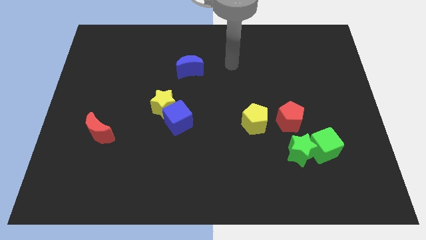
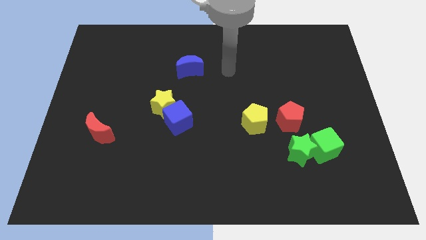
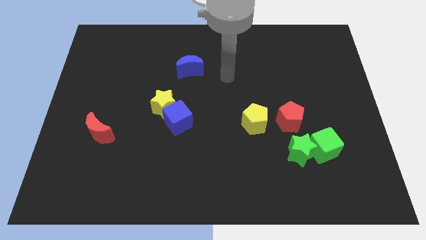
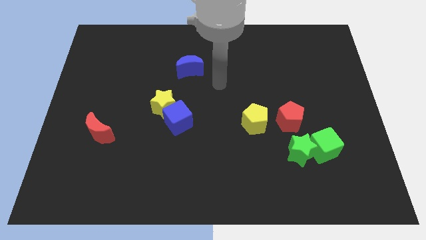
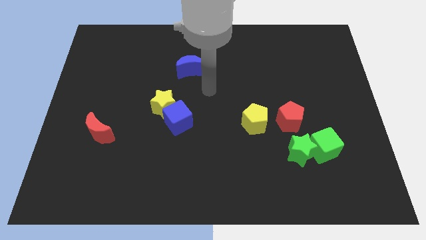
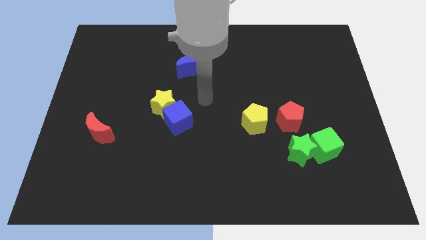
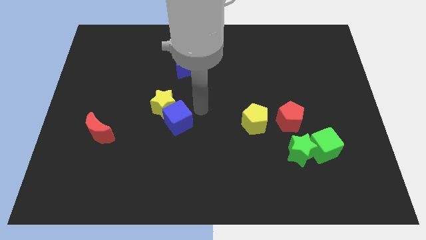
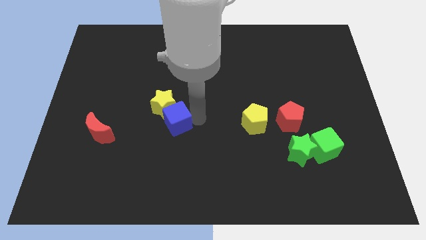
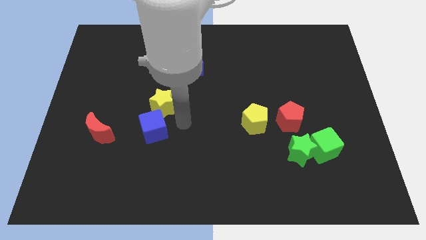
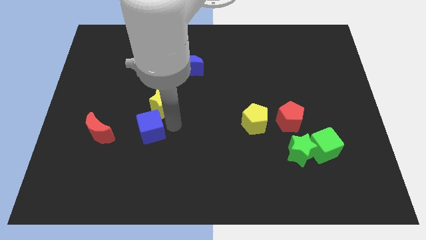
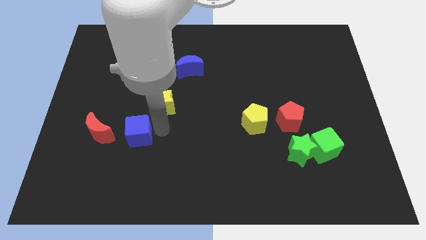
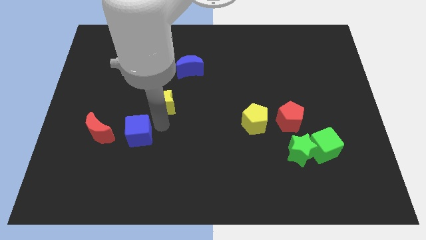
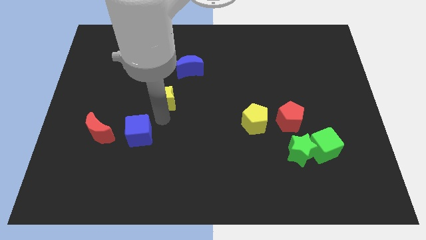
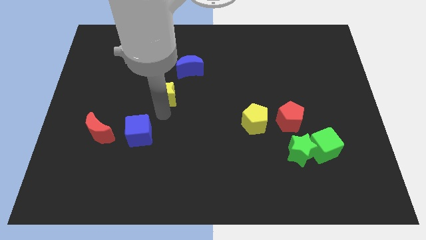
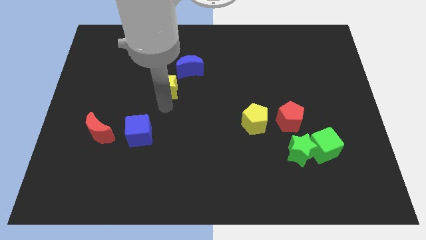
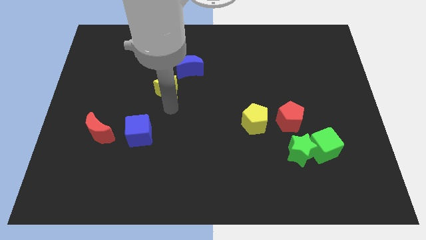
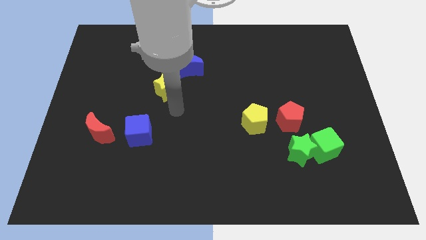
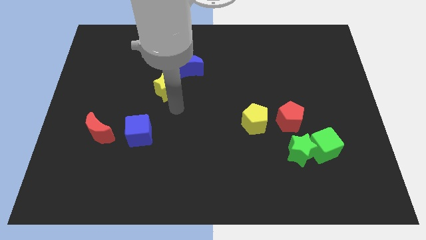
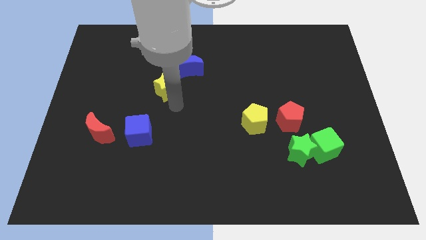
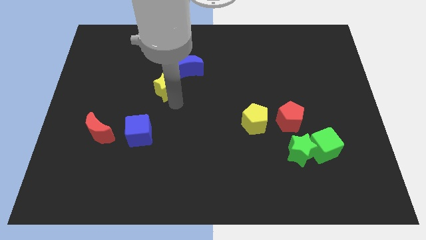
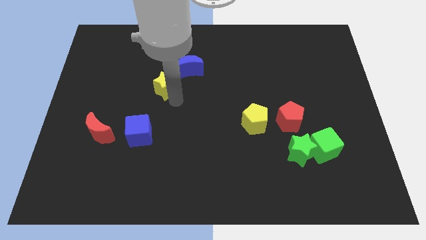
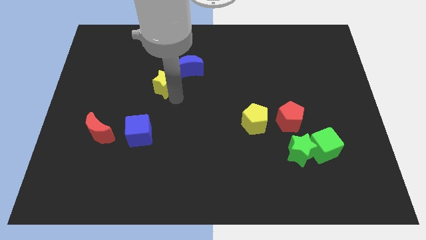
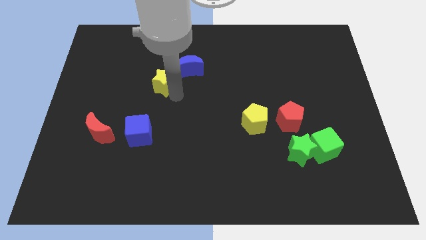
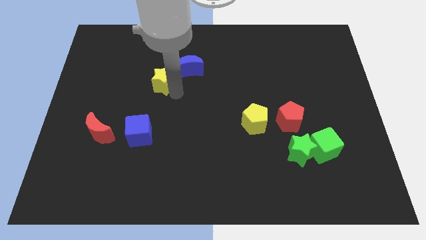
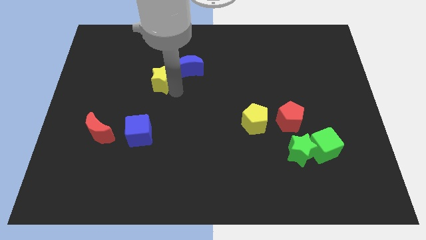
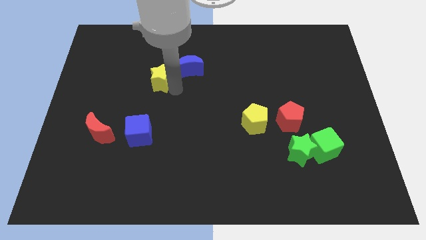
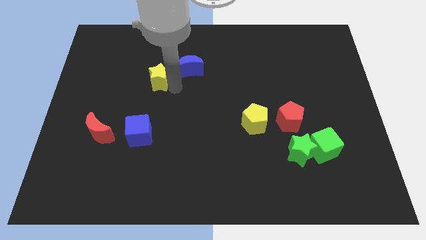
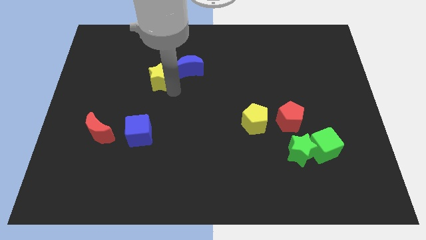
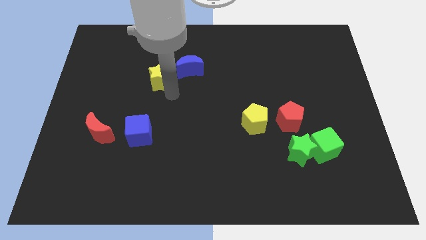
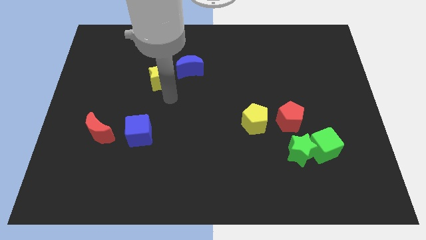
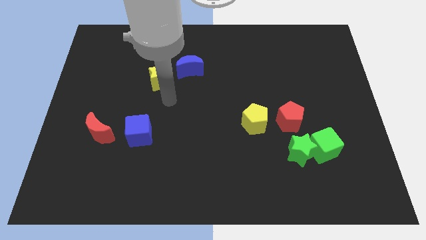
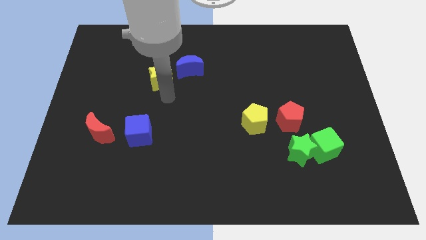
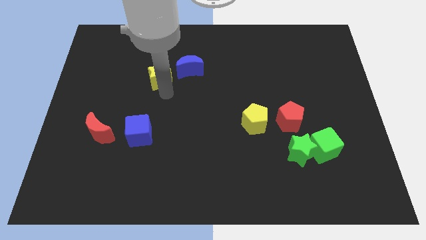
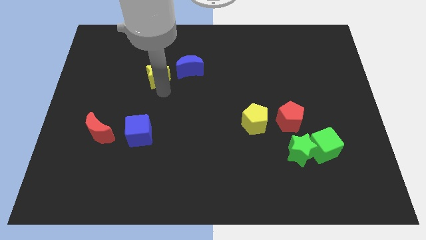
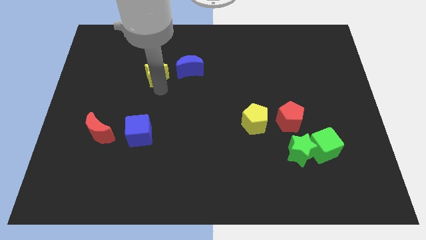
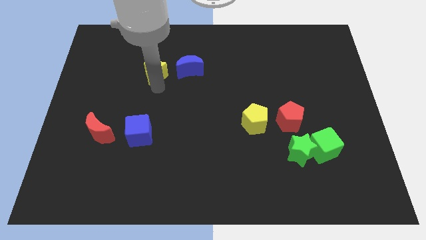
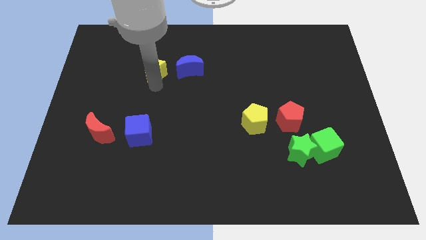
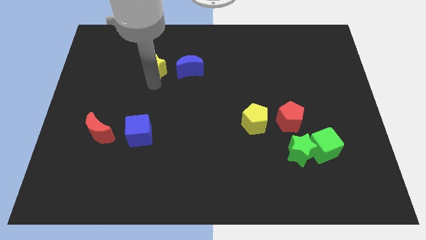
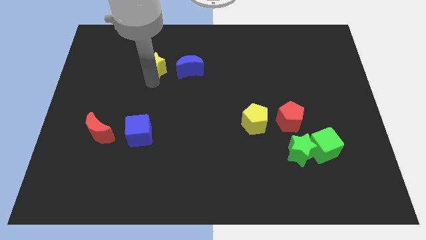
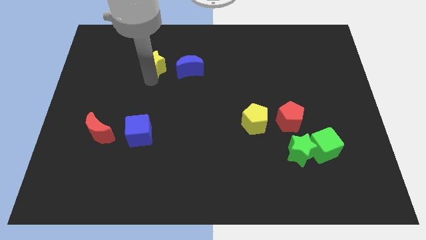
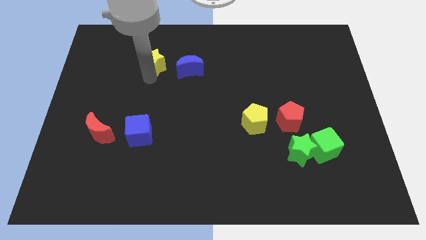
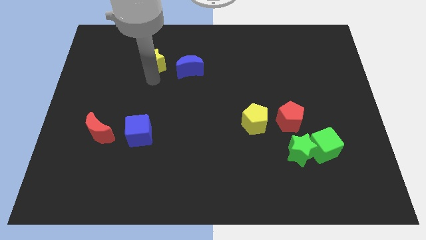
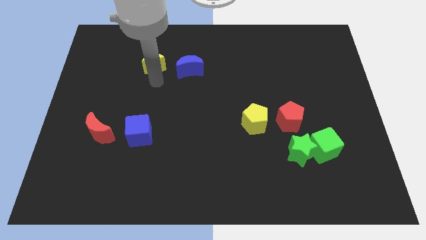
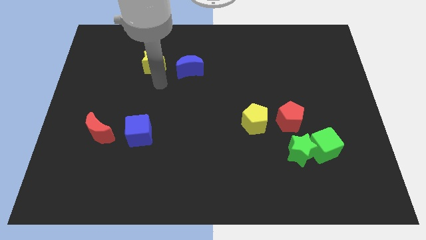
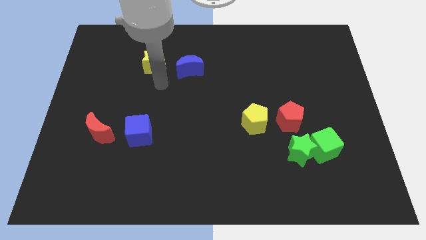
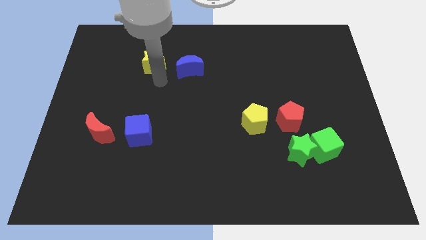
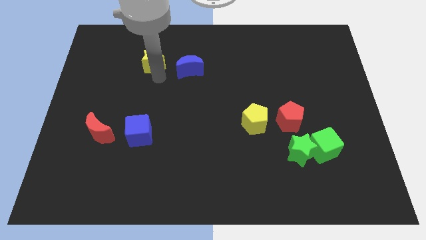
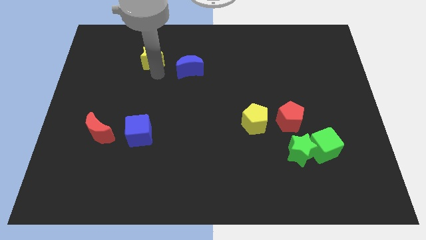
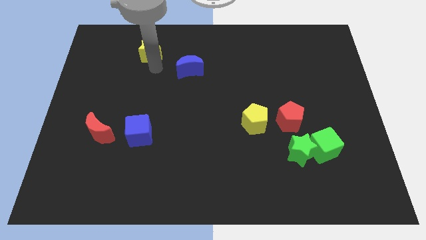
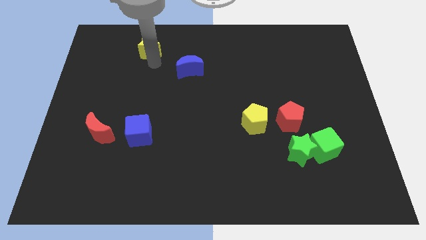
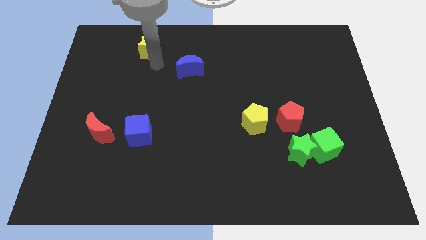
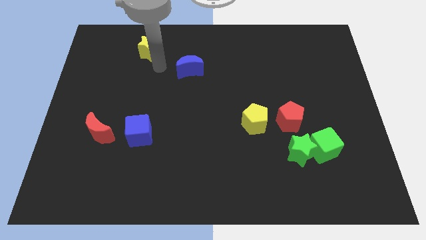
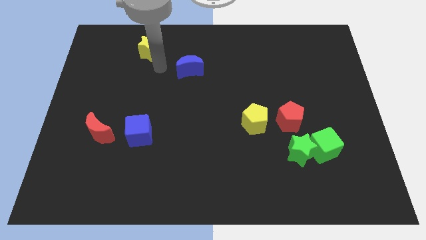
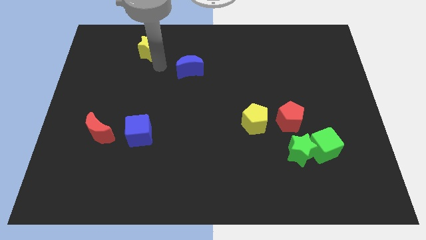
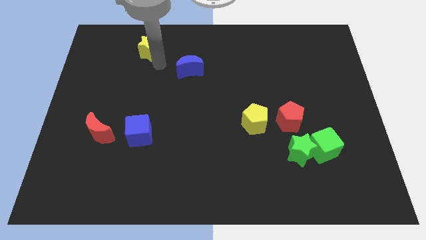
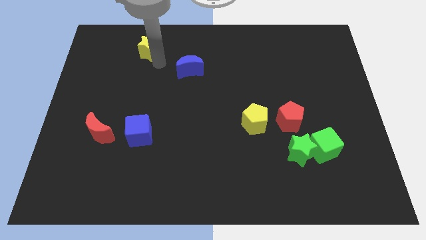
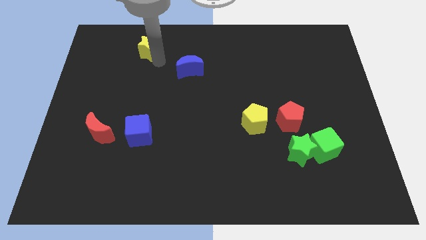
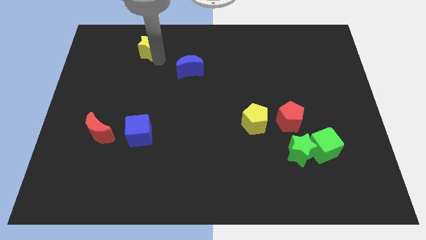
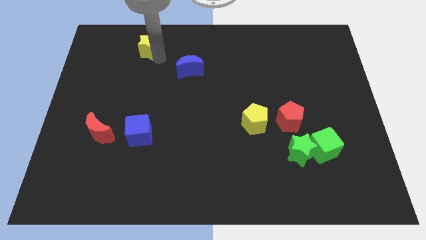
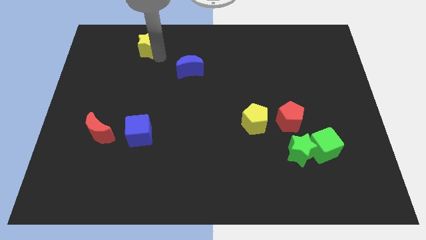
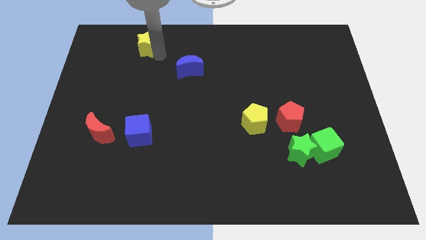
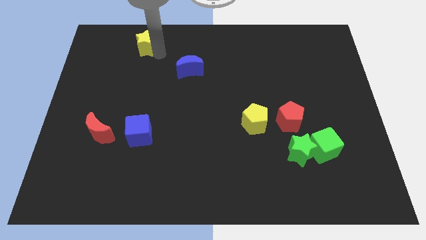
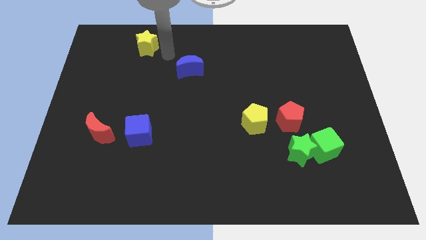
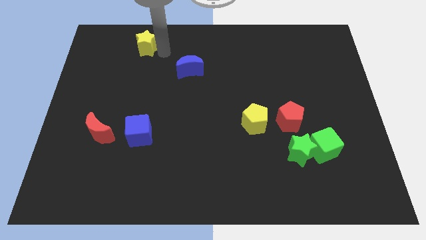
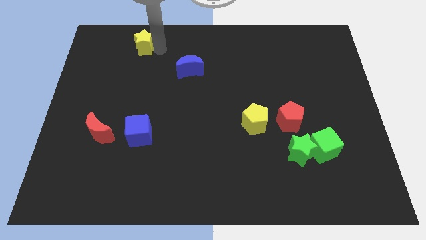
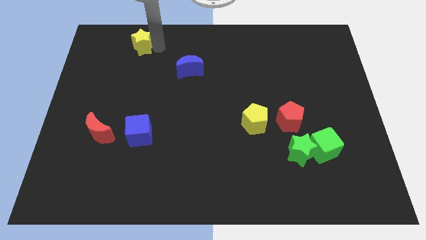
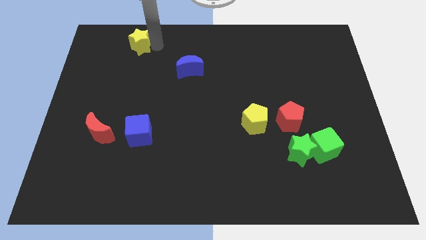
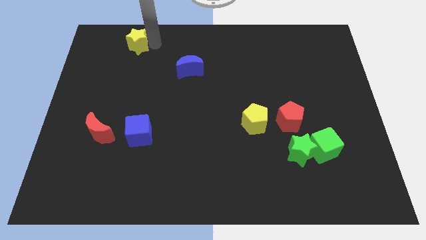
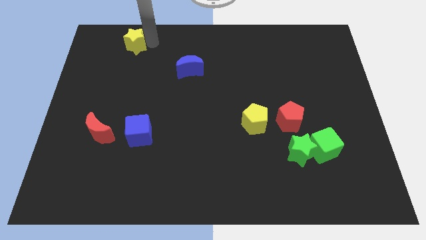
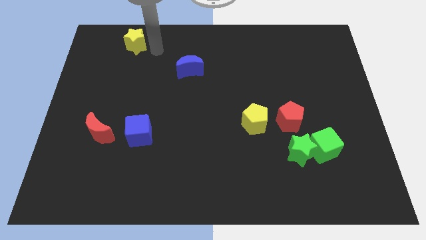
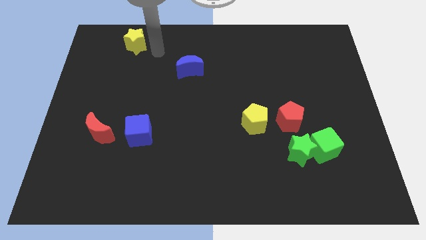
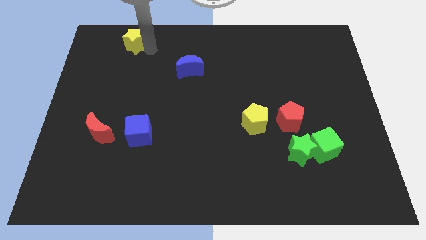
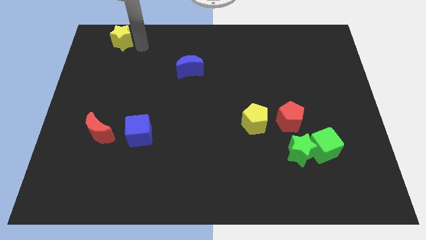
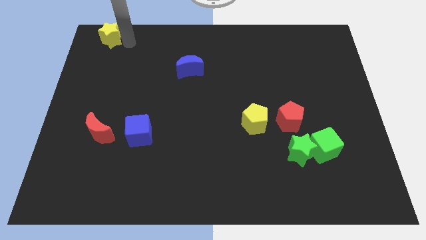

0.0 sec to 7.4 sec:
move the yellow star to the top left corner

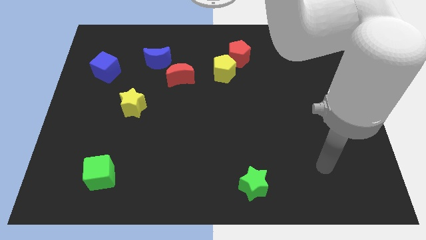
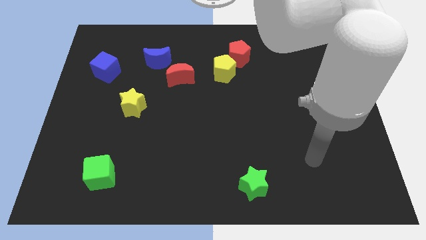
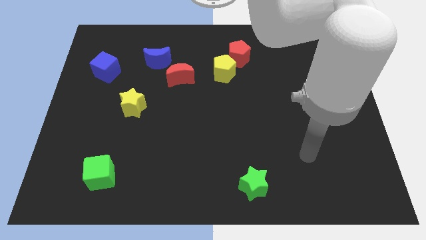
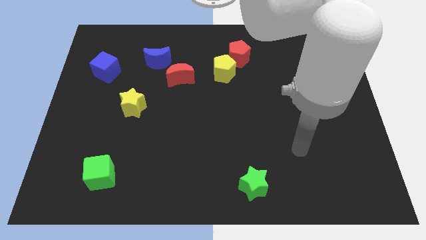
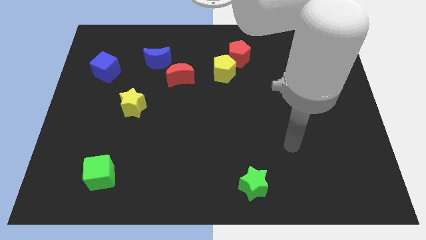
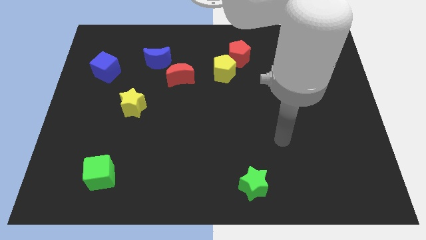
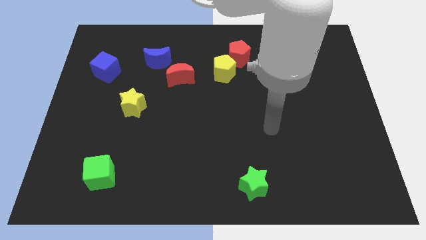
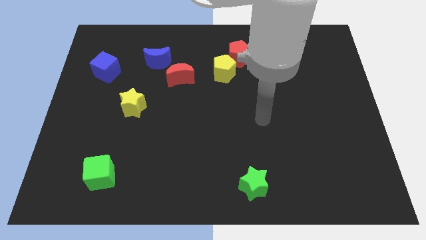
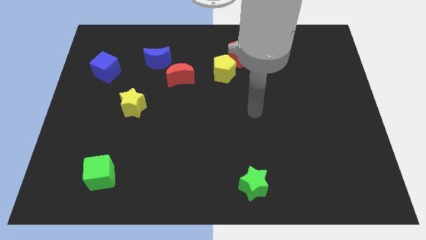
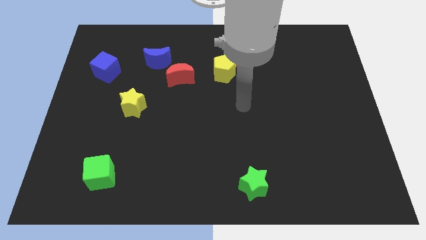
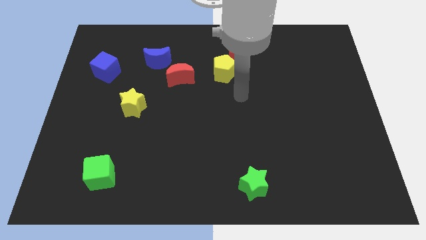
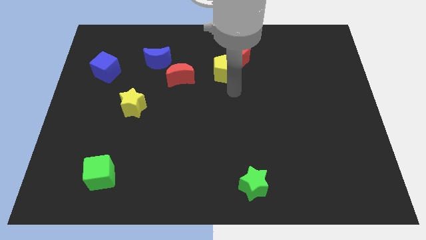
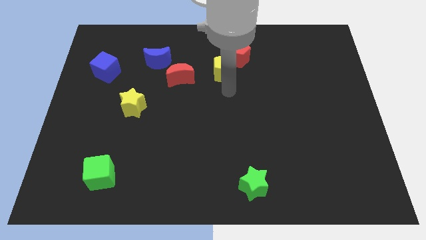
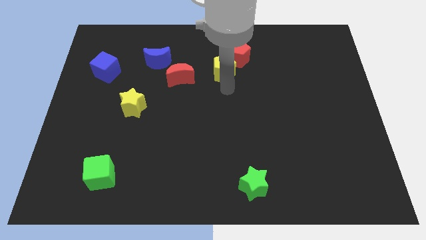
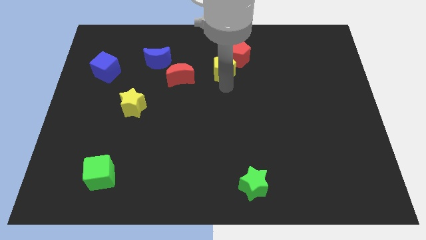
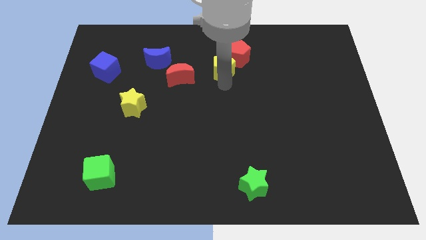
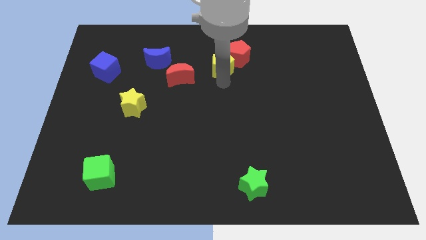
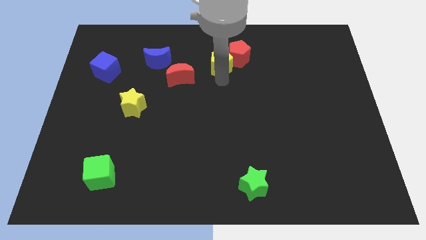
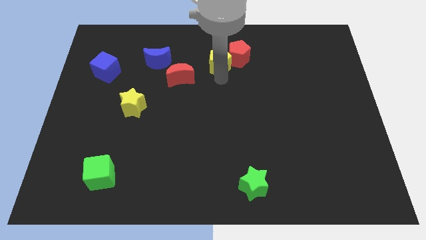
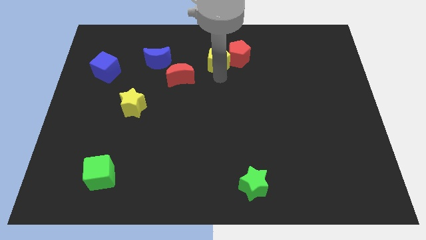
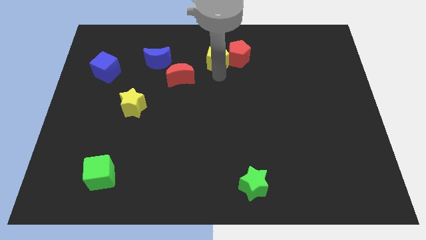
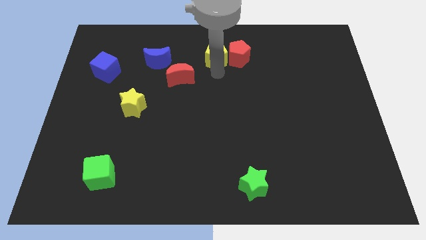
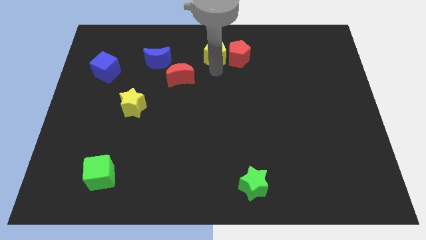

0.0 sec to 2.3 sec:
move the yellow pentagon to the towards your base
